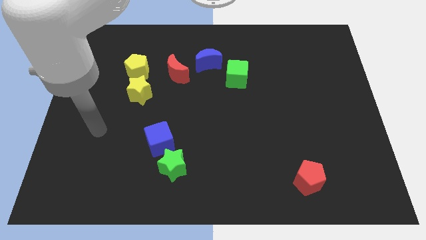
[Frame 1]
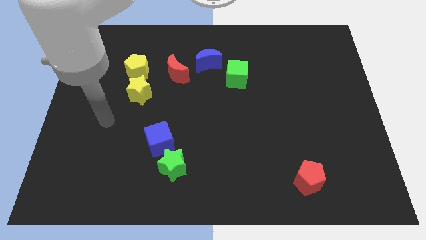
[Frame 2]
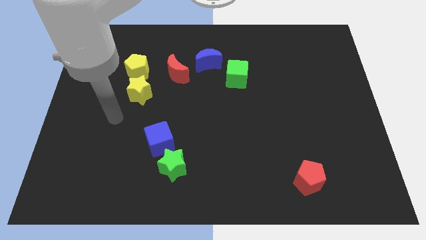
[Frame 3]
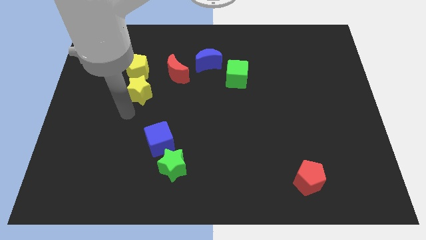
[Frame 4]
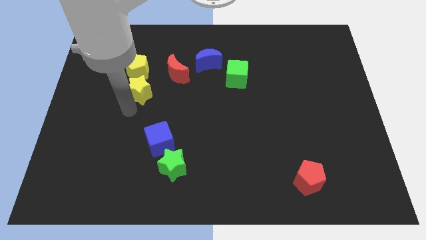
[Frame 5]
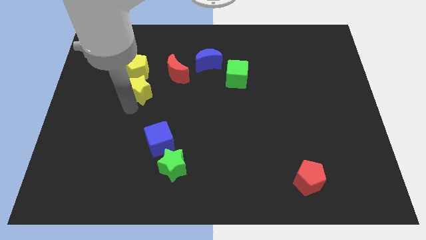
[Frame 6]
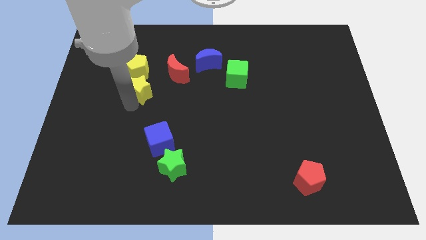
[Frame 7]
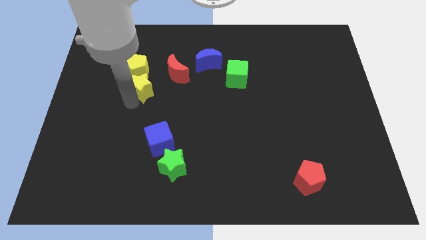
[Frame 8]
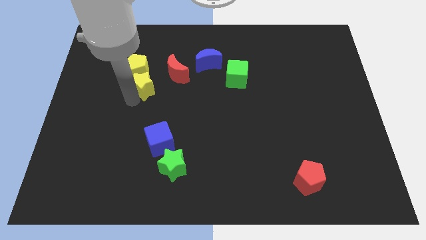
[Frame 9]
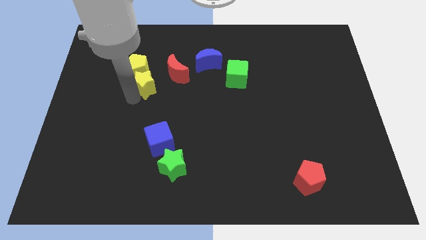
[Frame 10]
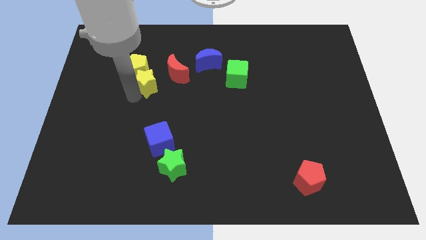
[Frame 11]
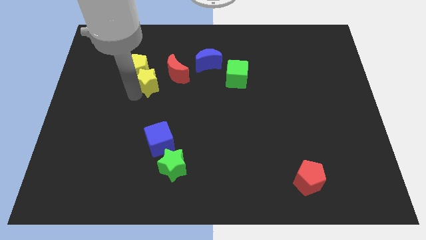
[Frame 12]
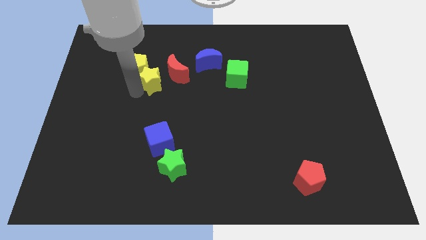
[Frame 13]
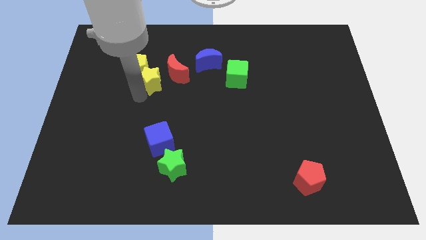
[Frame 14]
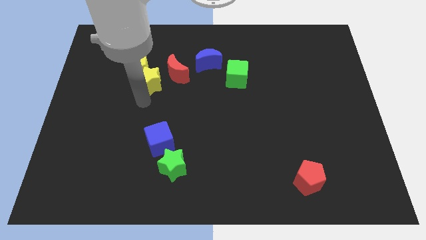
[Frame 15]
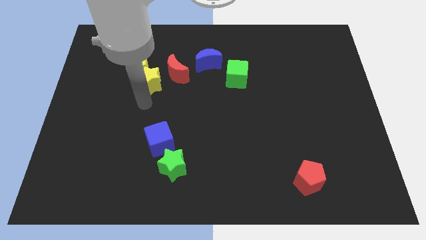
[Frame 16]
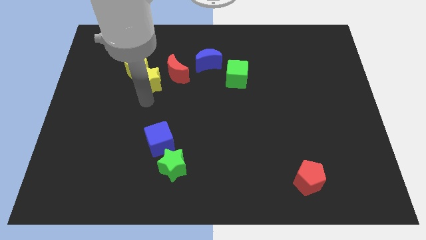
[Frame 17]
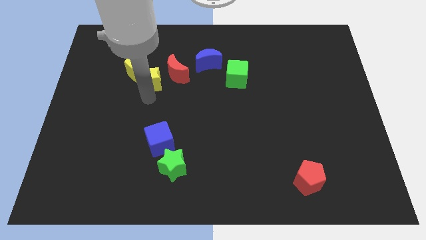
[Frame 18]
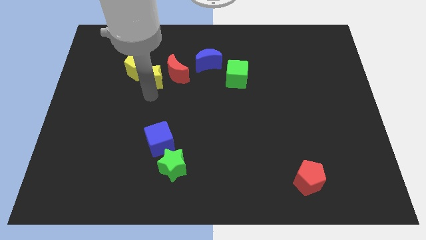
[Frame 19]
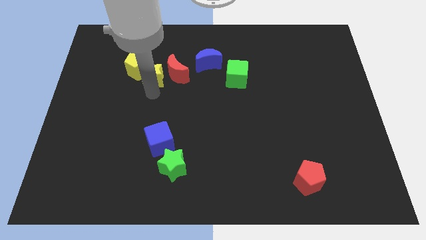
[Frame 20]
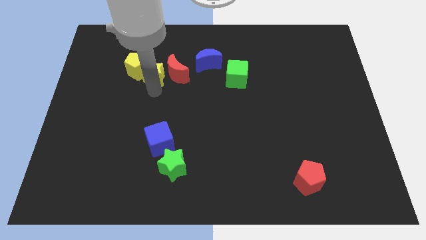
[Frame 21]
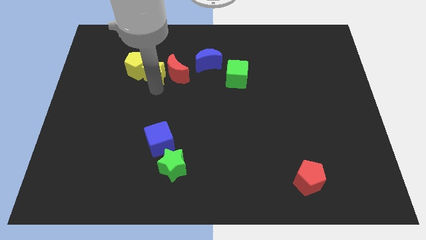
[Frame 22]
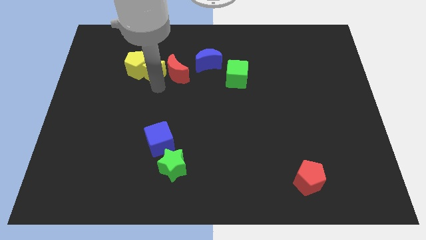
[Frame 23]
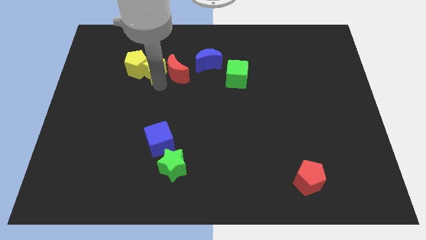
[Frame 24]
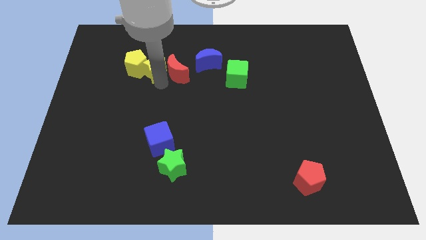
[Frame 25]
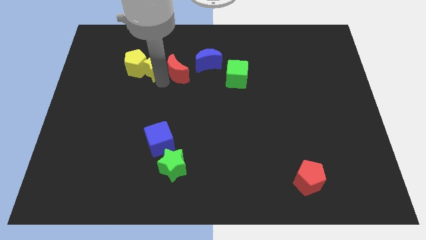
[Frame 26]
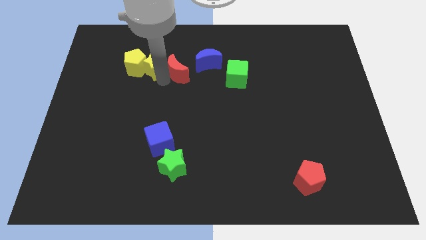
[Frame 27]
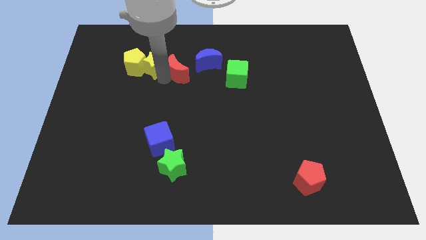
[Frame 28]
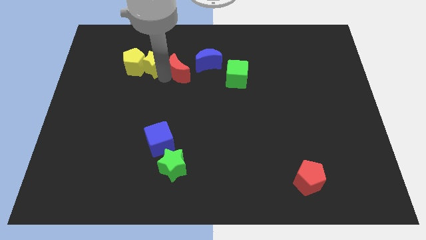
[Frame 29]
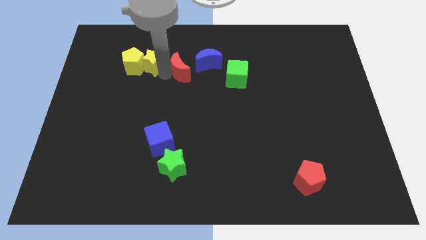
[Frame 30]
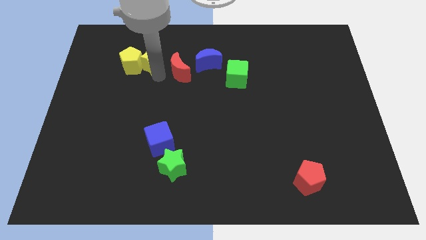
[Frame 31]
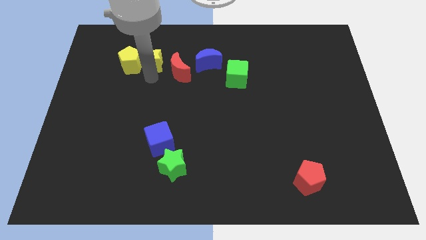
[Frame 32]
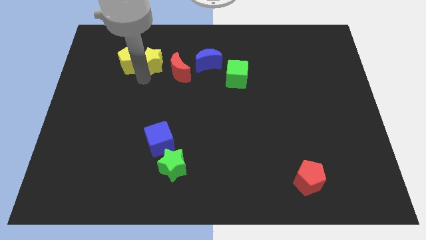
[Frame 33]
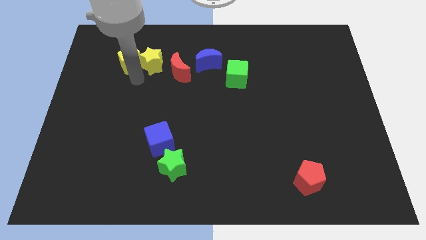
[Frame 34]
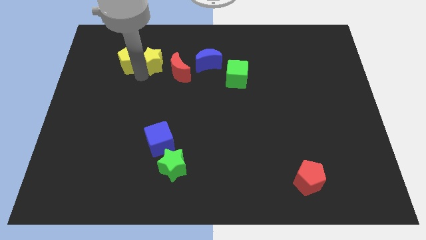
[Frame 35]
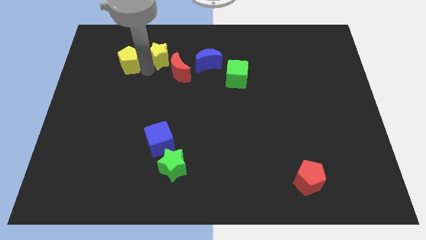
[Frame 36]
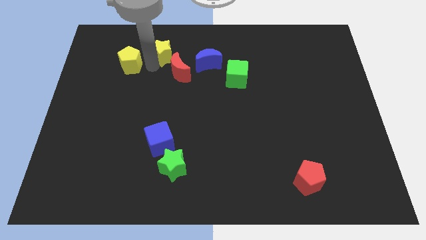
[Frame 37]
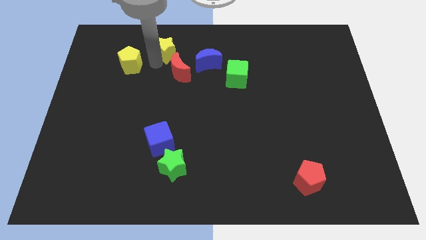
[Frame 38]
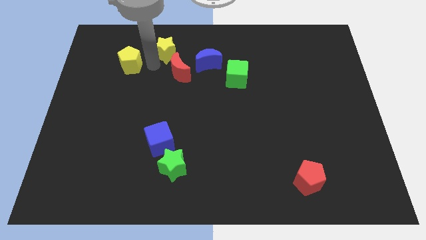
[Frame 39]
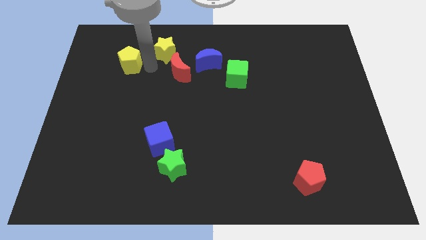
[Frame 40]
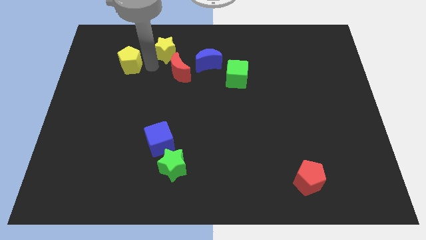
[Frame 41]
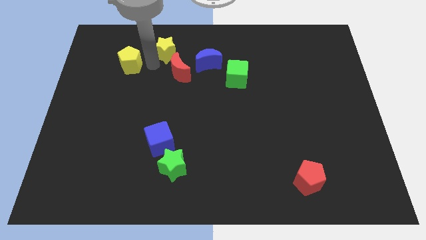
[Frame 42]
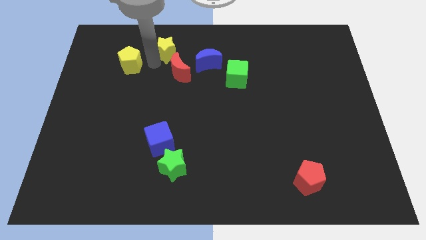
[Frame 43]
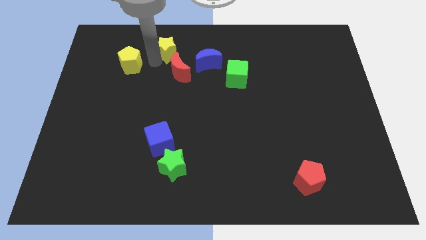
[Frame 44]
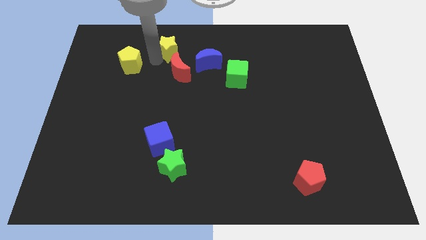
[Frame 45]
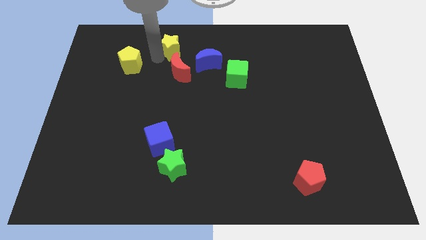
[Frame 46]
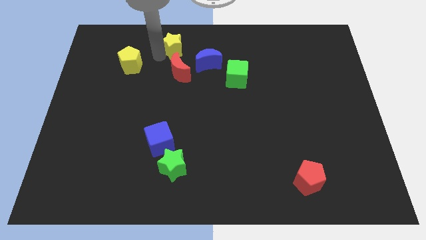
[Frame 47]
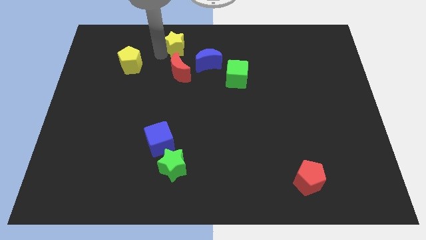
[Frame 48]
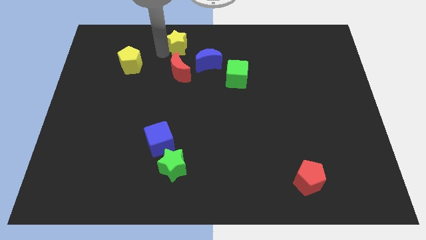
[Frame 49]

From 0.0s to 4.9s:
push the yellow star to the towards your base

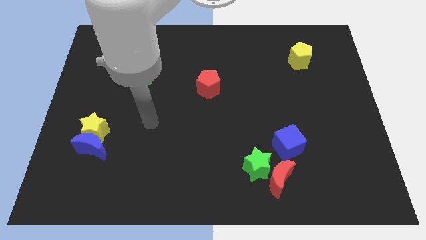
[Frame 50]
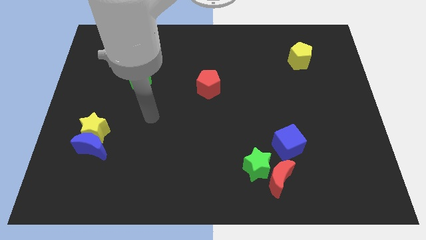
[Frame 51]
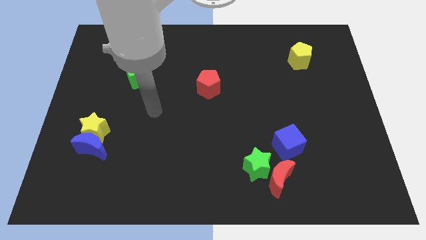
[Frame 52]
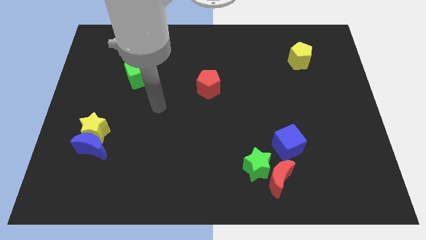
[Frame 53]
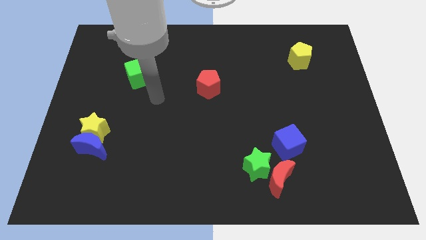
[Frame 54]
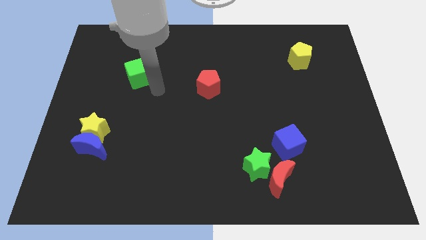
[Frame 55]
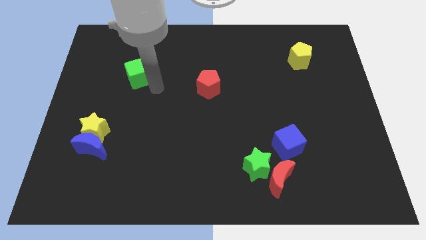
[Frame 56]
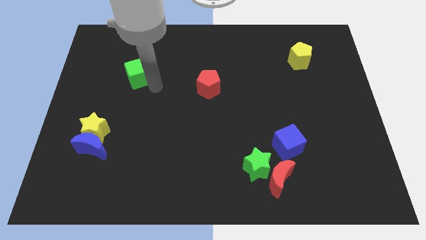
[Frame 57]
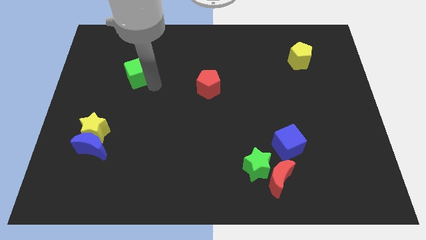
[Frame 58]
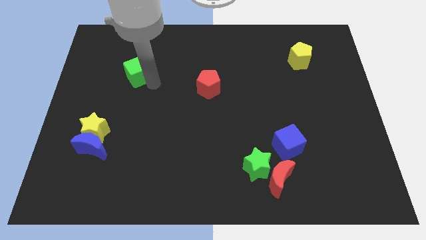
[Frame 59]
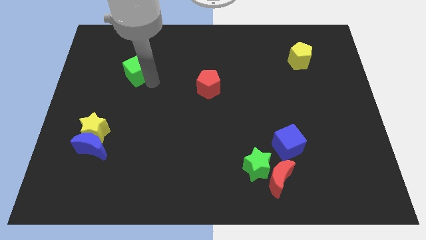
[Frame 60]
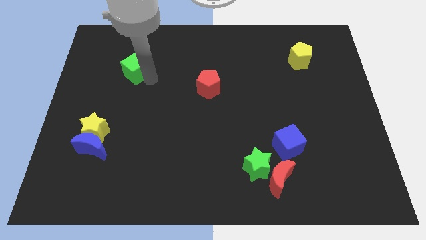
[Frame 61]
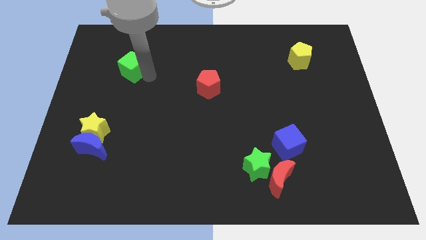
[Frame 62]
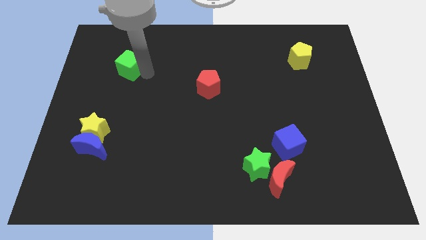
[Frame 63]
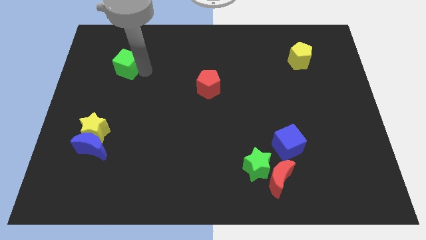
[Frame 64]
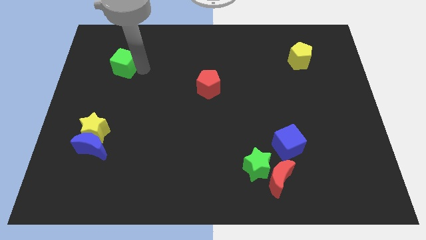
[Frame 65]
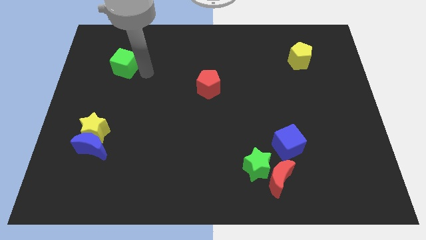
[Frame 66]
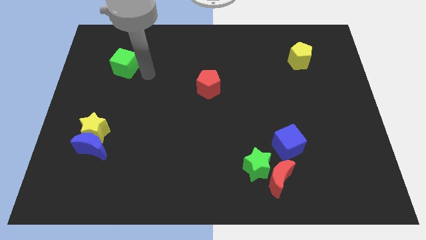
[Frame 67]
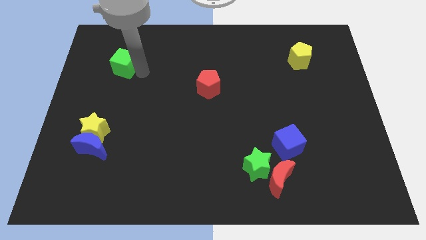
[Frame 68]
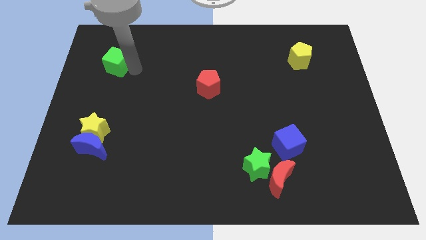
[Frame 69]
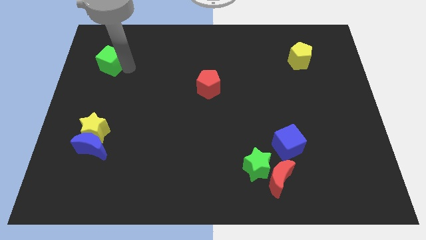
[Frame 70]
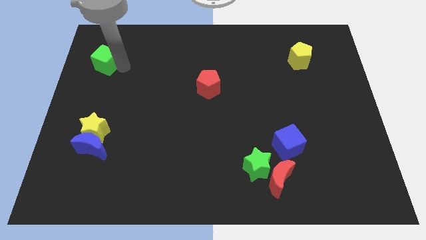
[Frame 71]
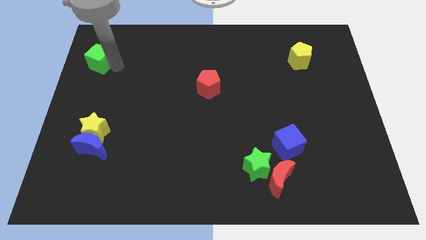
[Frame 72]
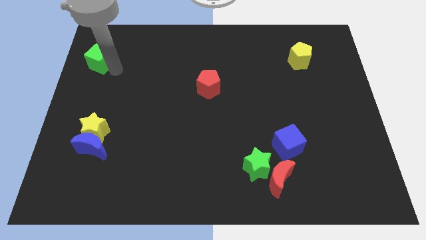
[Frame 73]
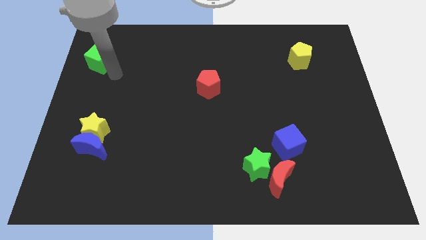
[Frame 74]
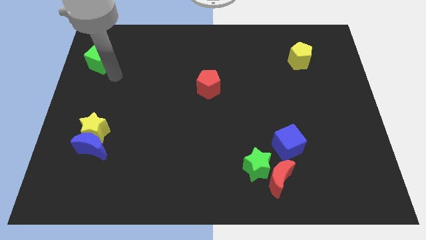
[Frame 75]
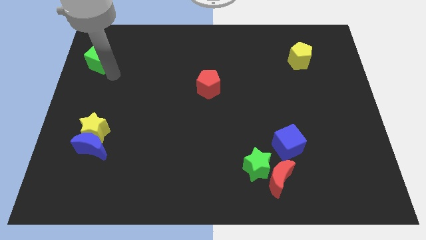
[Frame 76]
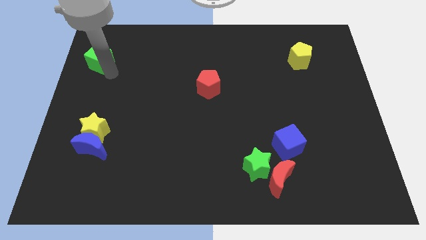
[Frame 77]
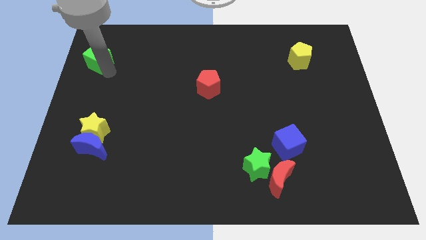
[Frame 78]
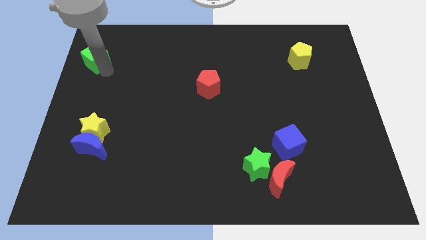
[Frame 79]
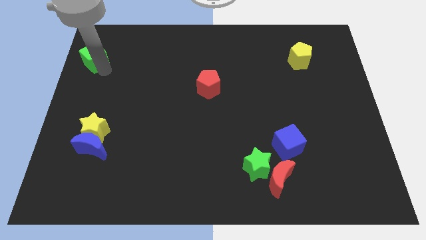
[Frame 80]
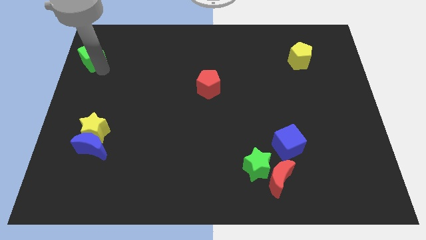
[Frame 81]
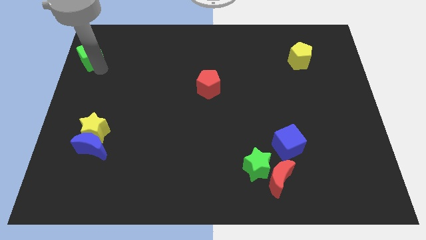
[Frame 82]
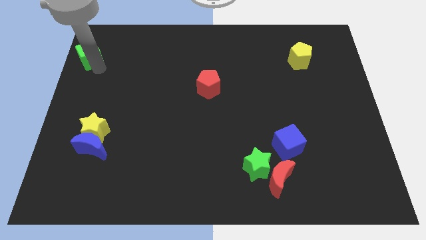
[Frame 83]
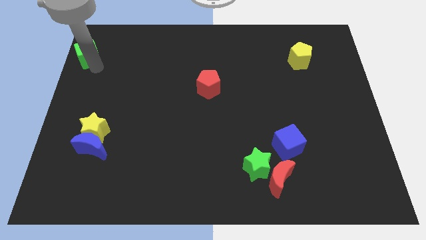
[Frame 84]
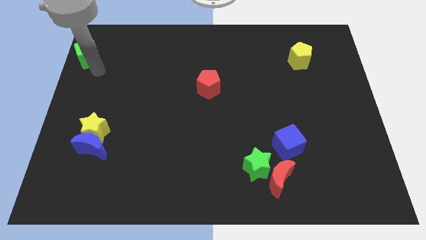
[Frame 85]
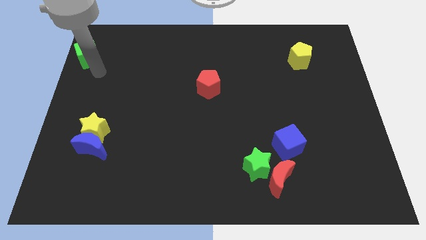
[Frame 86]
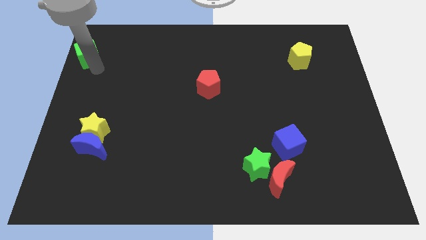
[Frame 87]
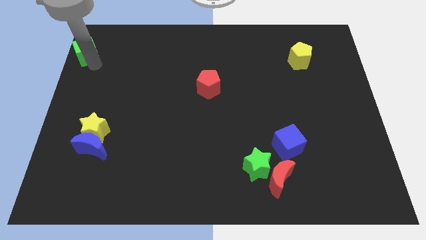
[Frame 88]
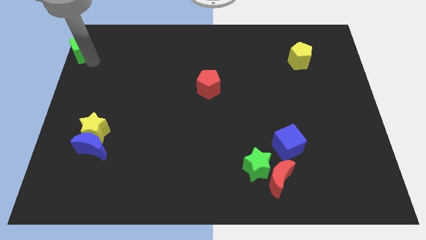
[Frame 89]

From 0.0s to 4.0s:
slide the green cube to the upper left corner
